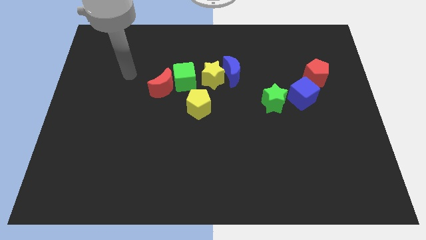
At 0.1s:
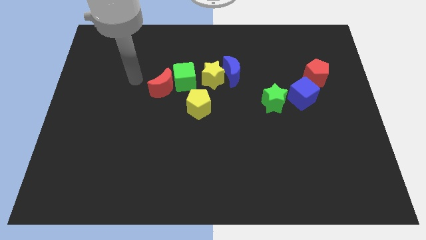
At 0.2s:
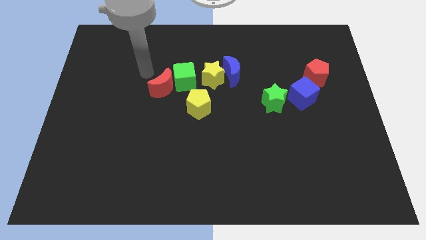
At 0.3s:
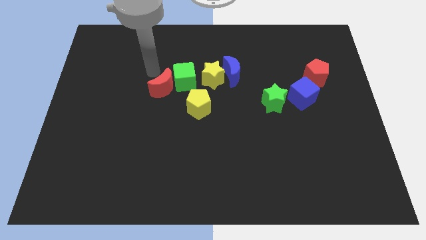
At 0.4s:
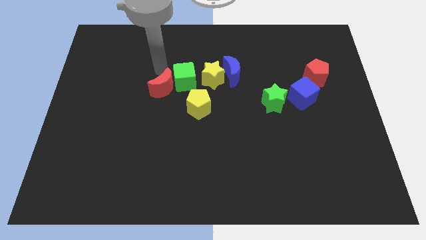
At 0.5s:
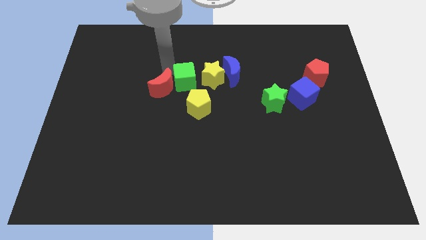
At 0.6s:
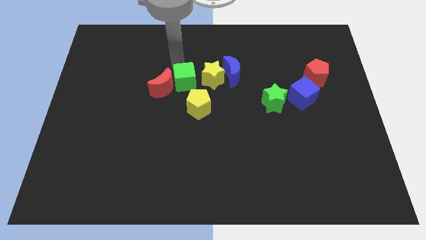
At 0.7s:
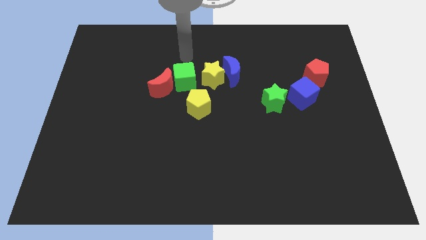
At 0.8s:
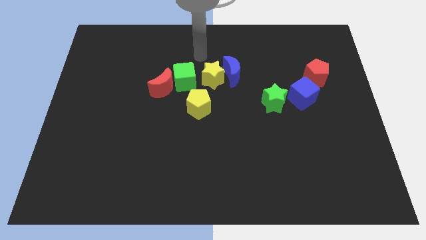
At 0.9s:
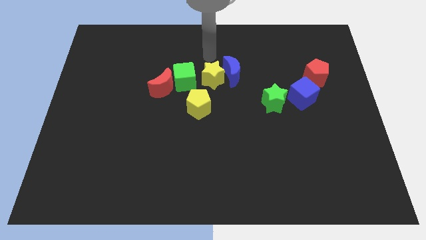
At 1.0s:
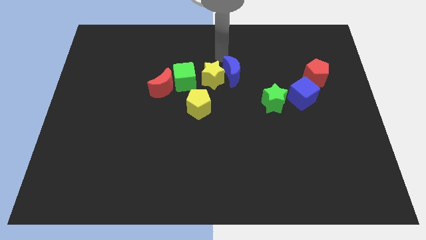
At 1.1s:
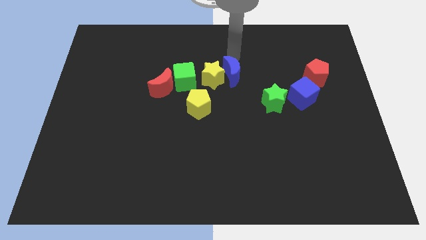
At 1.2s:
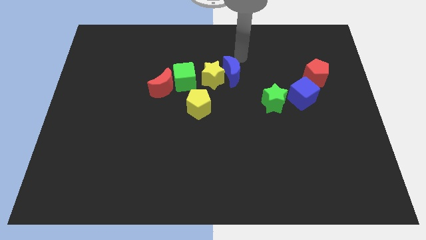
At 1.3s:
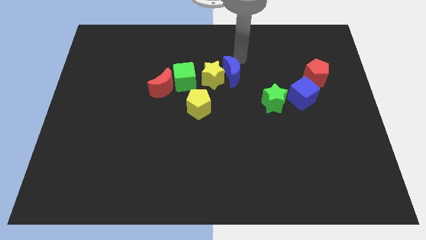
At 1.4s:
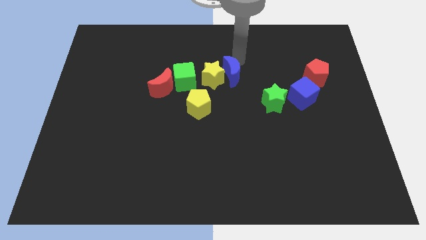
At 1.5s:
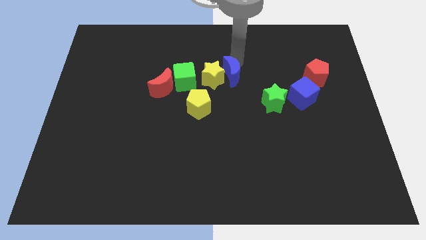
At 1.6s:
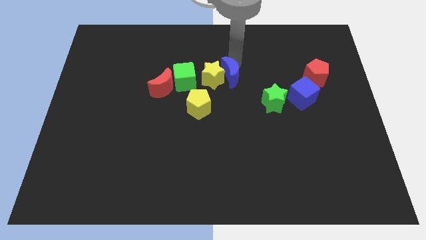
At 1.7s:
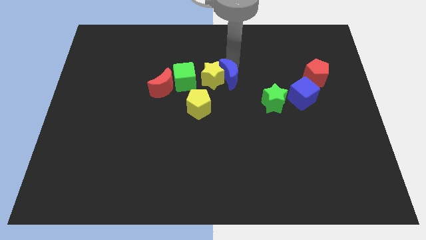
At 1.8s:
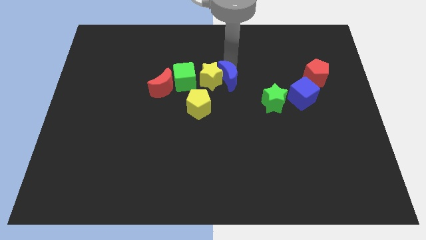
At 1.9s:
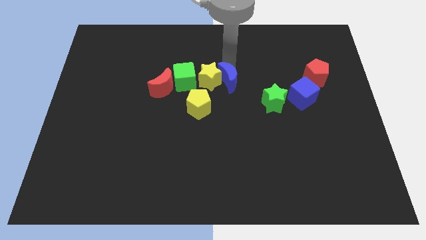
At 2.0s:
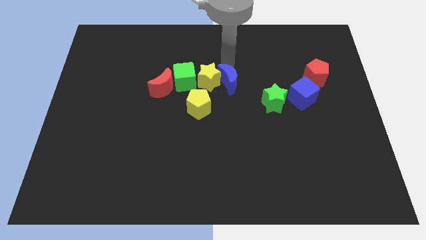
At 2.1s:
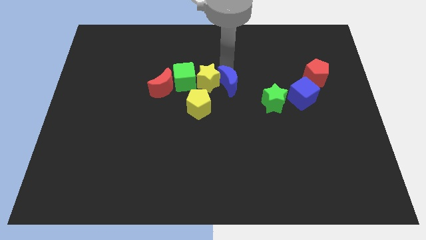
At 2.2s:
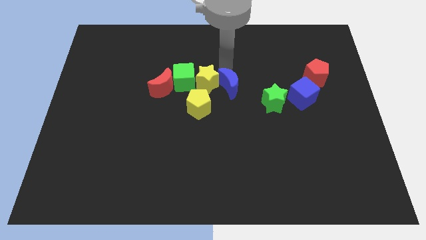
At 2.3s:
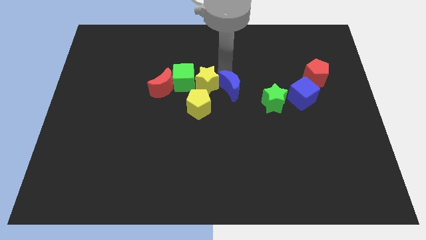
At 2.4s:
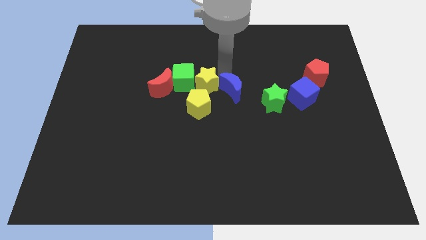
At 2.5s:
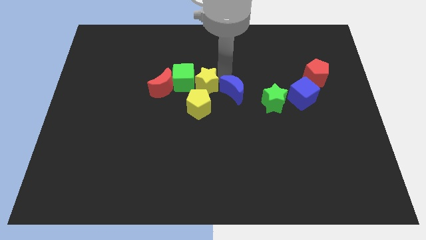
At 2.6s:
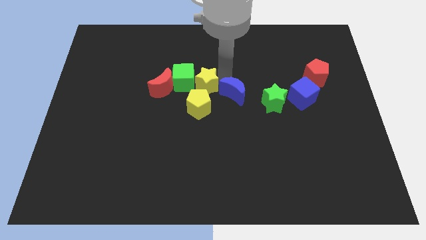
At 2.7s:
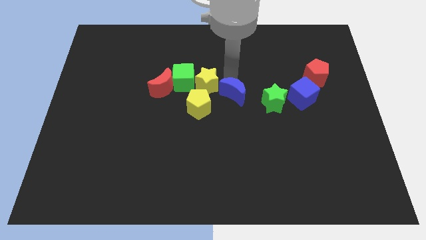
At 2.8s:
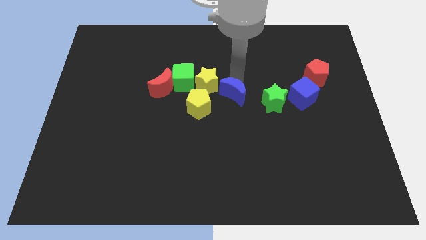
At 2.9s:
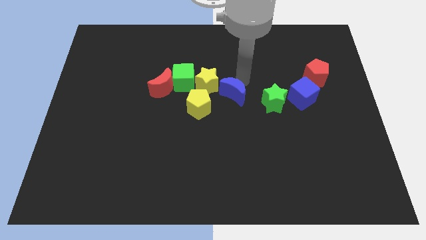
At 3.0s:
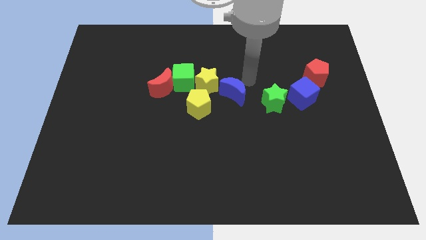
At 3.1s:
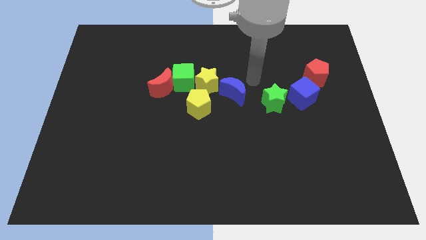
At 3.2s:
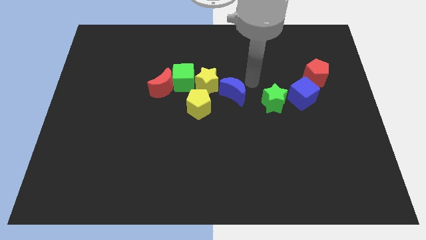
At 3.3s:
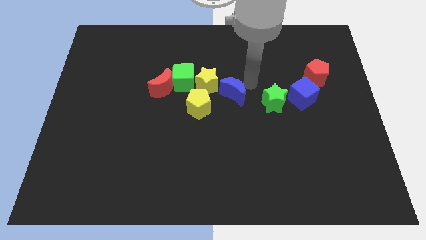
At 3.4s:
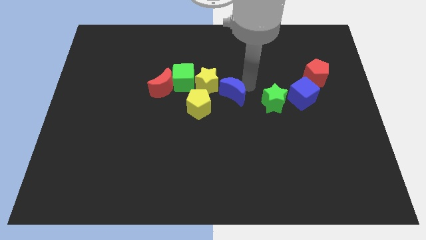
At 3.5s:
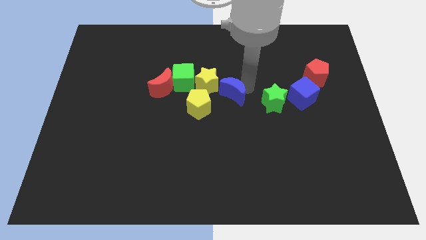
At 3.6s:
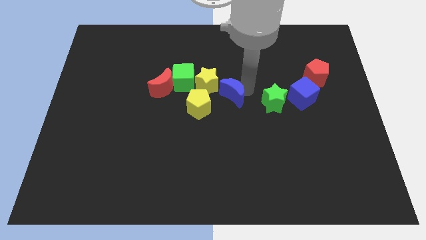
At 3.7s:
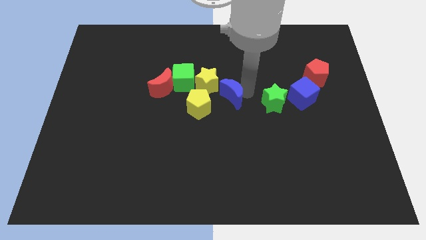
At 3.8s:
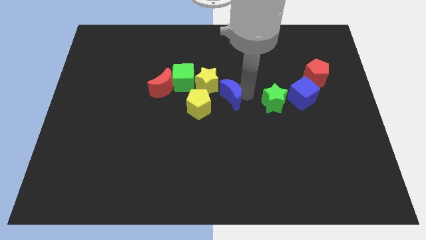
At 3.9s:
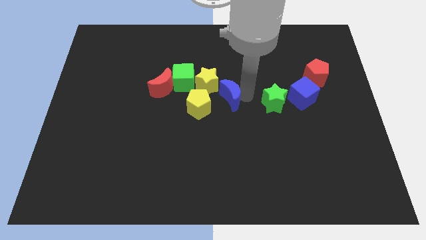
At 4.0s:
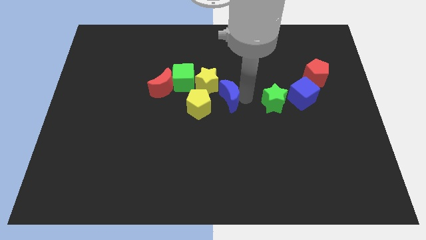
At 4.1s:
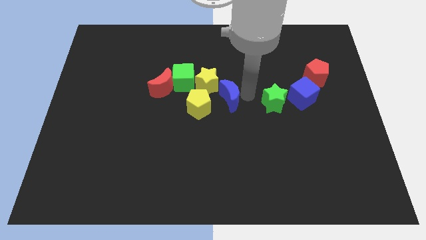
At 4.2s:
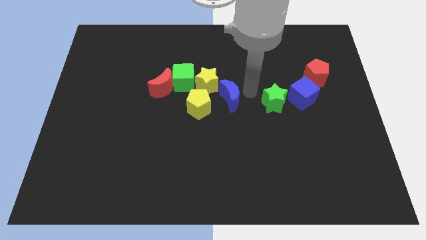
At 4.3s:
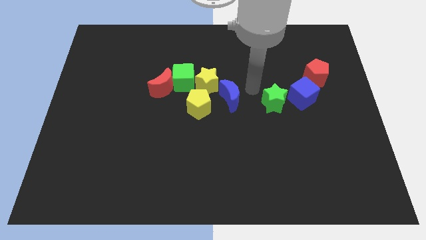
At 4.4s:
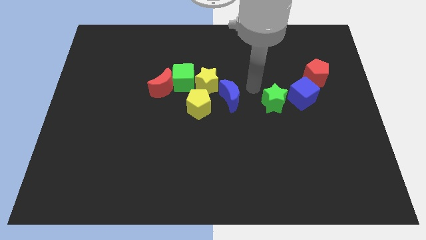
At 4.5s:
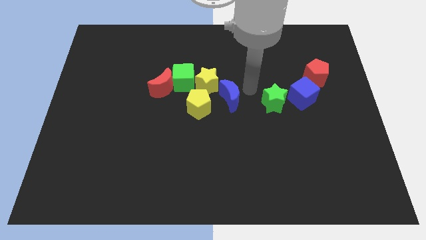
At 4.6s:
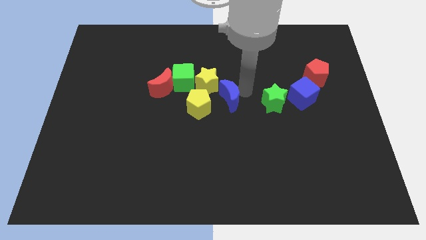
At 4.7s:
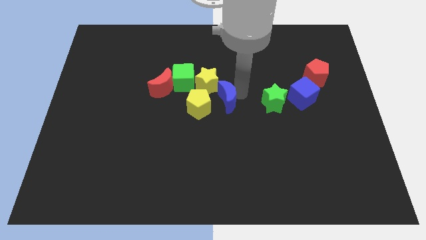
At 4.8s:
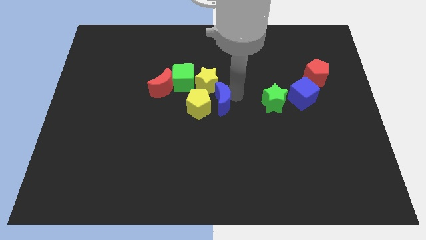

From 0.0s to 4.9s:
slide the blue moon to the bottom right of the green cube

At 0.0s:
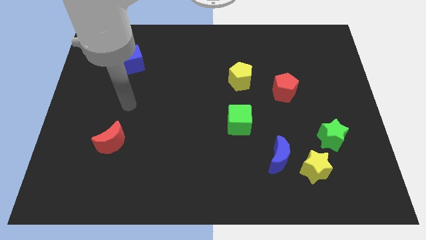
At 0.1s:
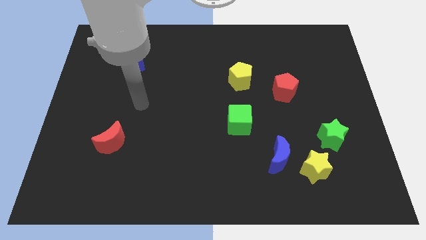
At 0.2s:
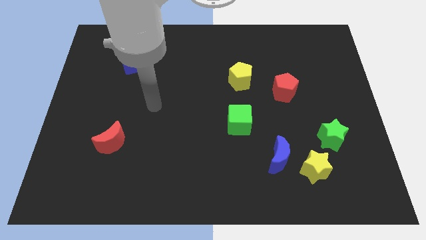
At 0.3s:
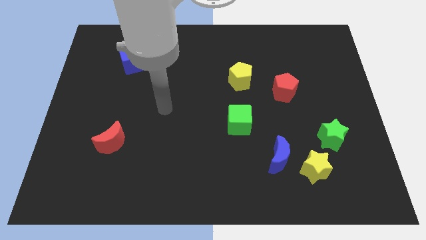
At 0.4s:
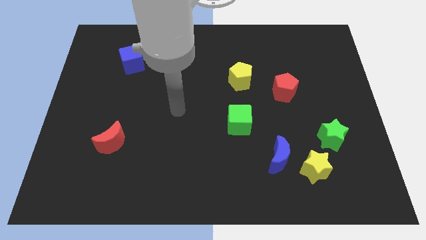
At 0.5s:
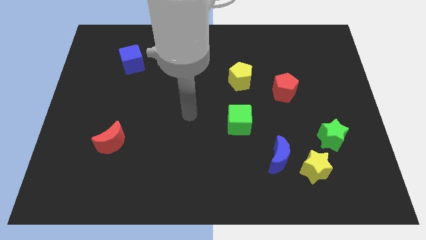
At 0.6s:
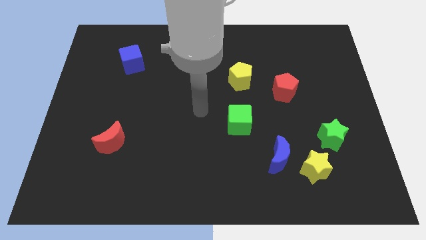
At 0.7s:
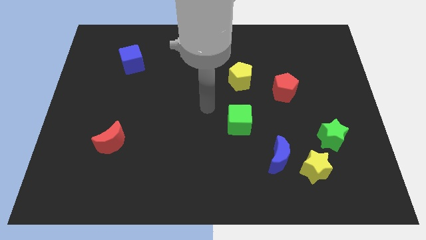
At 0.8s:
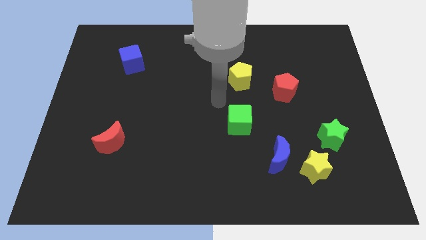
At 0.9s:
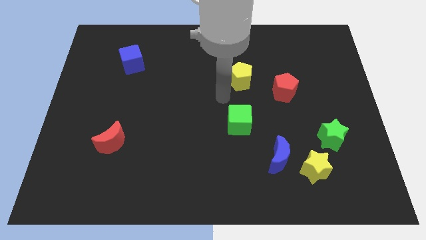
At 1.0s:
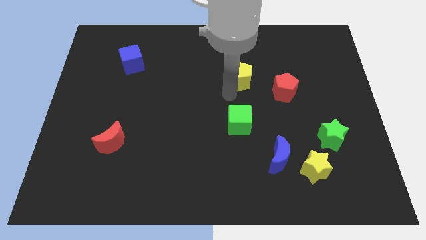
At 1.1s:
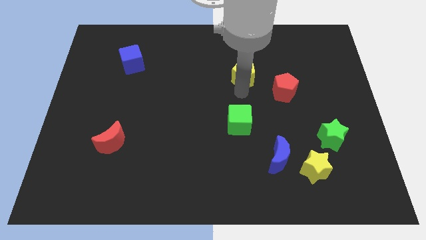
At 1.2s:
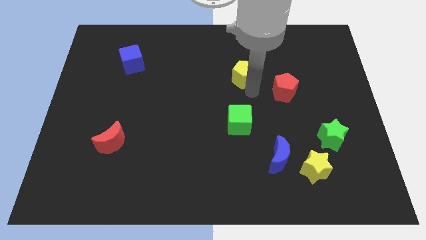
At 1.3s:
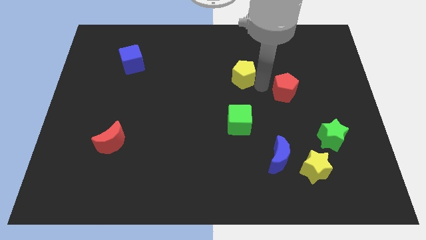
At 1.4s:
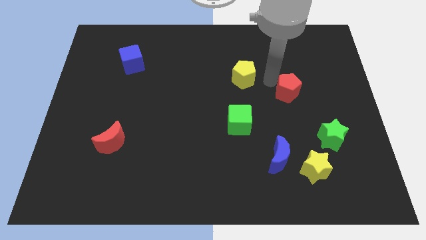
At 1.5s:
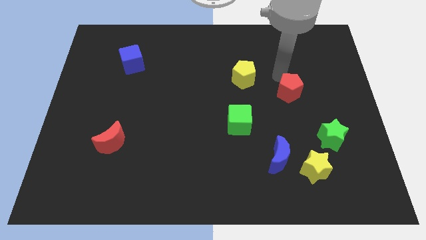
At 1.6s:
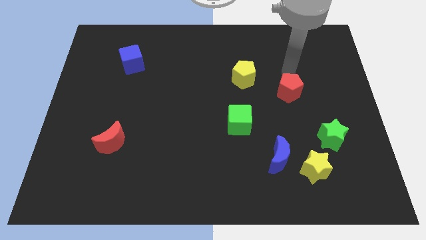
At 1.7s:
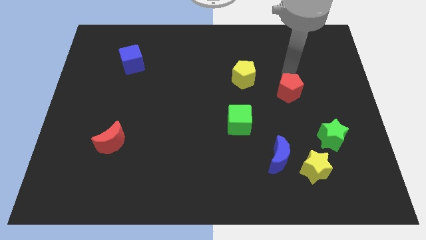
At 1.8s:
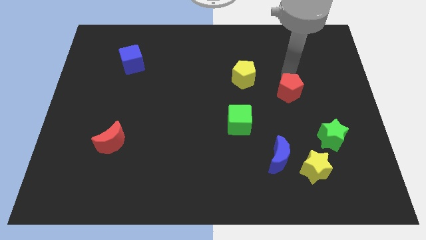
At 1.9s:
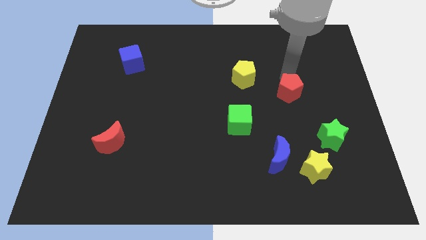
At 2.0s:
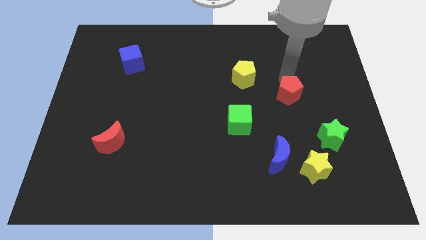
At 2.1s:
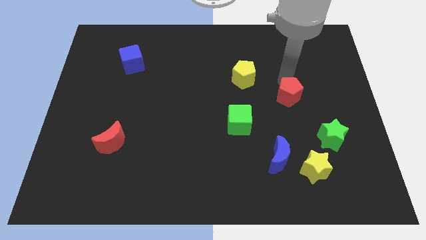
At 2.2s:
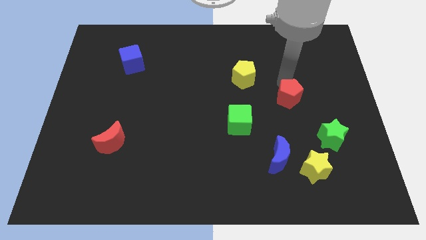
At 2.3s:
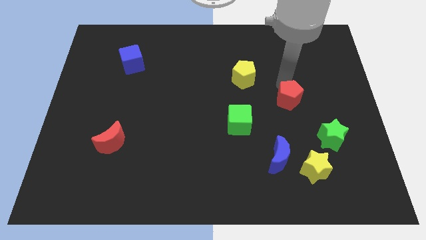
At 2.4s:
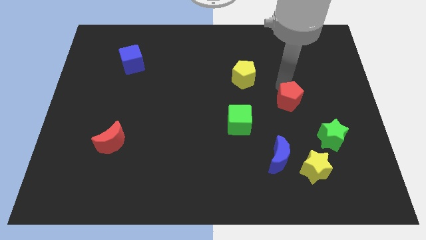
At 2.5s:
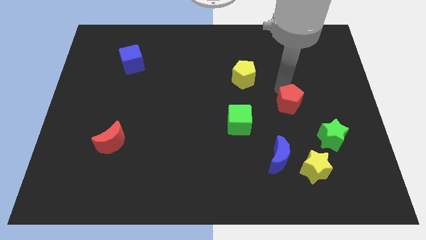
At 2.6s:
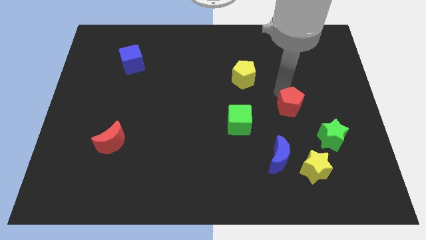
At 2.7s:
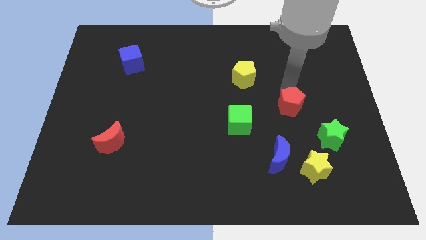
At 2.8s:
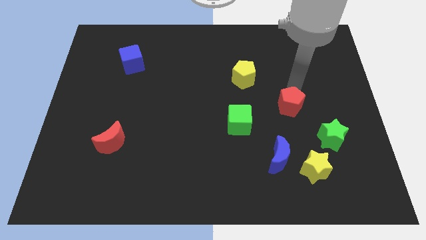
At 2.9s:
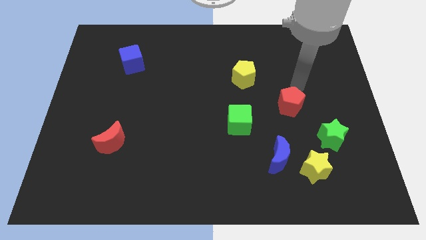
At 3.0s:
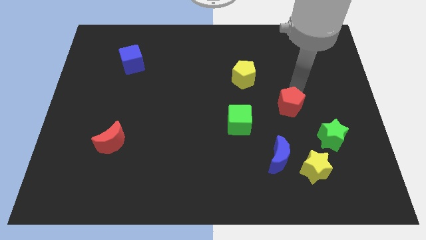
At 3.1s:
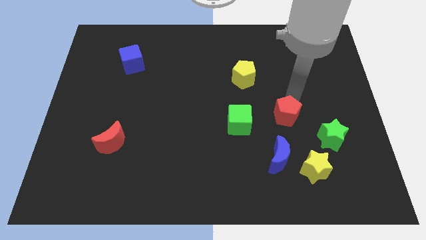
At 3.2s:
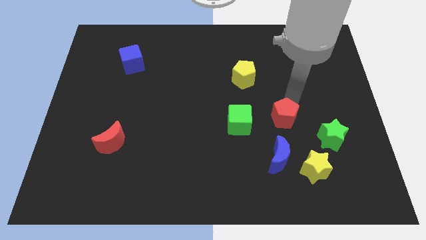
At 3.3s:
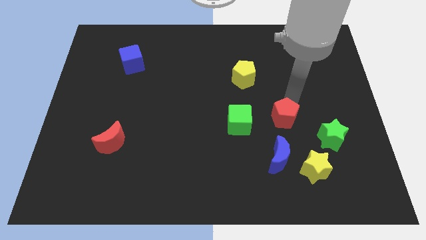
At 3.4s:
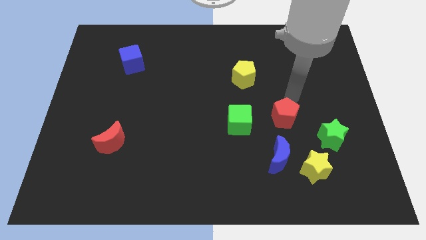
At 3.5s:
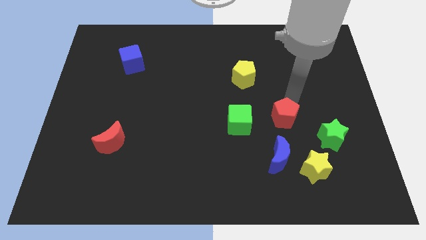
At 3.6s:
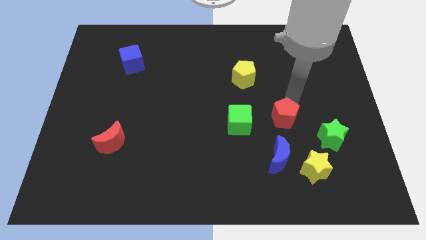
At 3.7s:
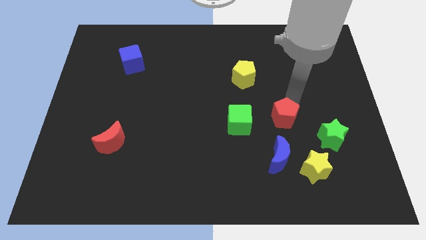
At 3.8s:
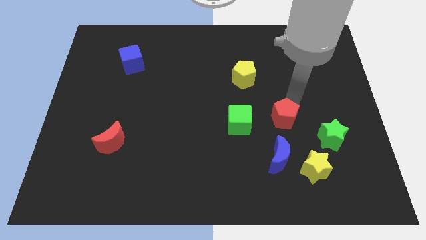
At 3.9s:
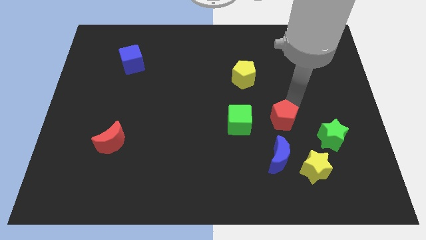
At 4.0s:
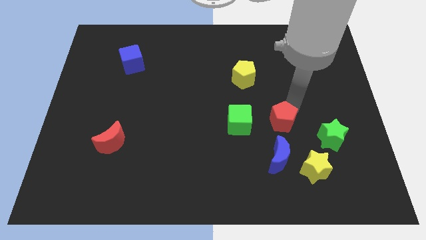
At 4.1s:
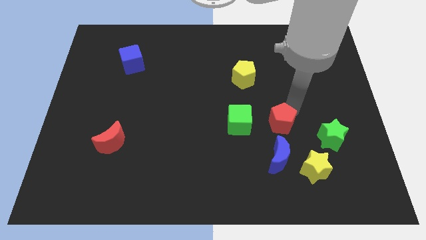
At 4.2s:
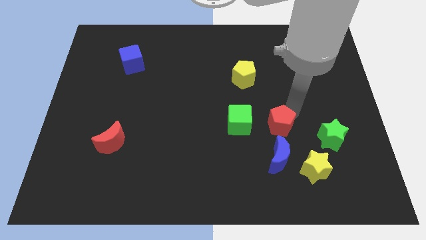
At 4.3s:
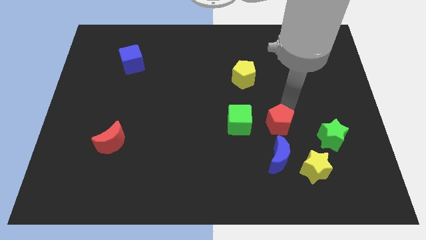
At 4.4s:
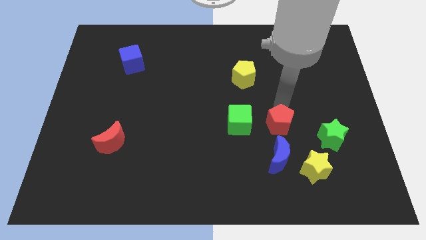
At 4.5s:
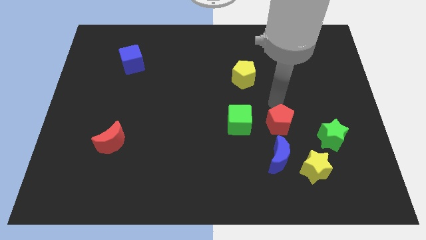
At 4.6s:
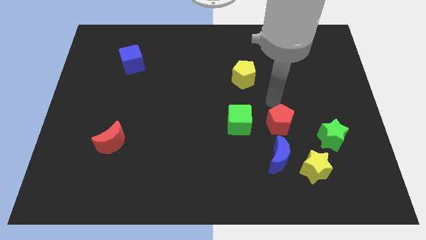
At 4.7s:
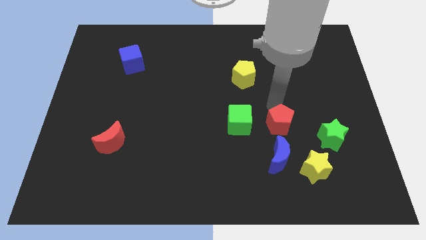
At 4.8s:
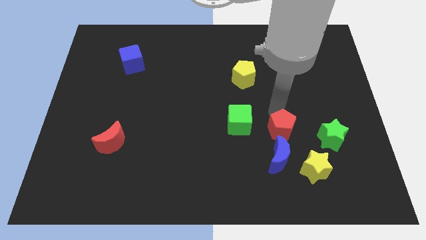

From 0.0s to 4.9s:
move the red pentagon to the top left of the yellow star
